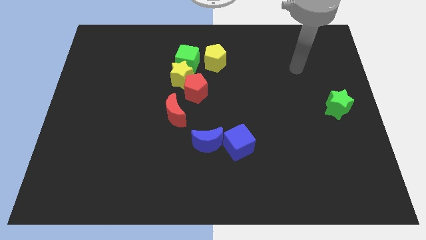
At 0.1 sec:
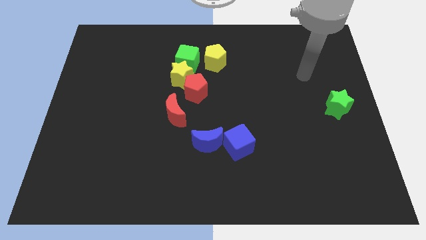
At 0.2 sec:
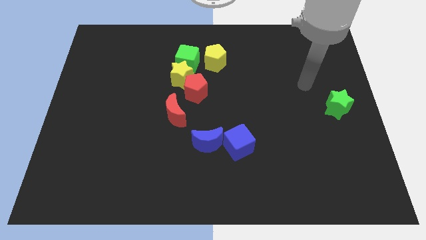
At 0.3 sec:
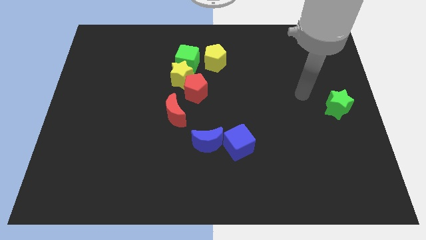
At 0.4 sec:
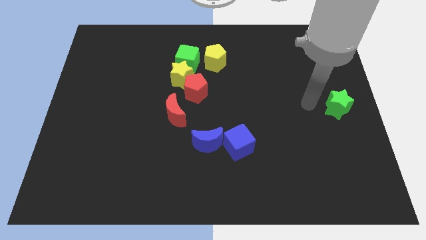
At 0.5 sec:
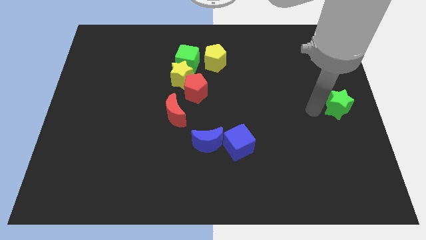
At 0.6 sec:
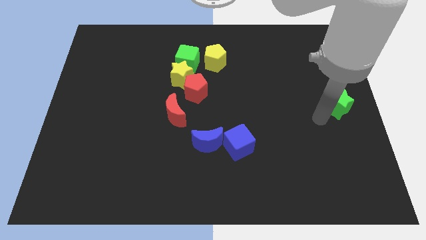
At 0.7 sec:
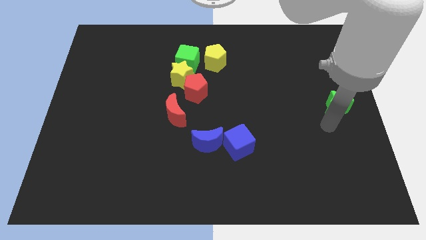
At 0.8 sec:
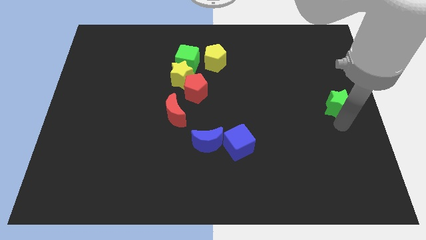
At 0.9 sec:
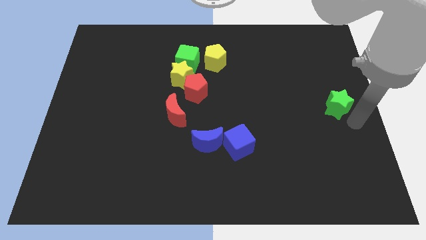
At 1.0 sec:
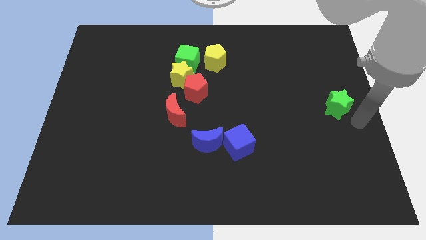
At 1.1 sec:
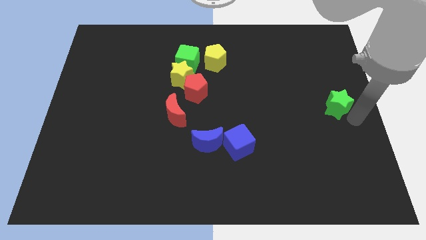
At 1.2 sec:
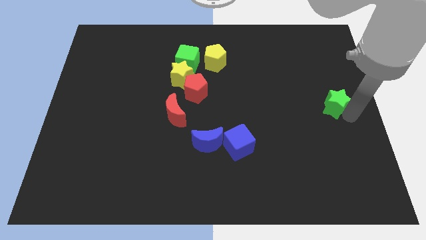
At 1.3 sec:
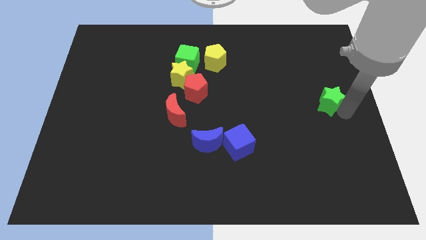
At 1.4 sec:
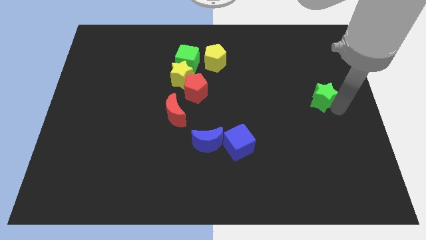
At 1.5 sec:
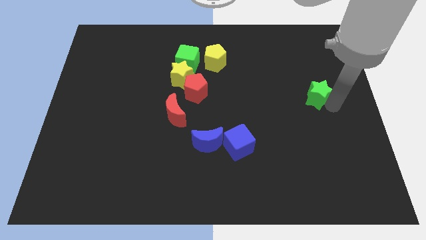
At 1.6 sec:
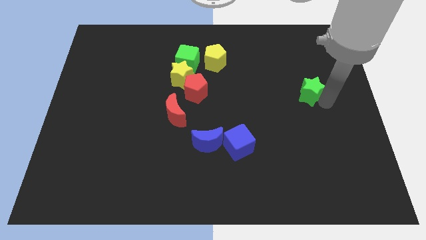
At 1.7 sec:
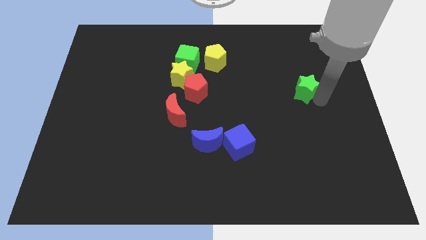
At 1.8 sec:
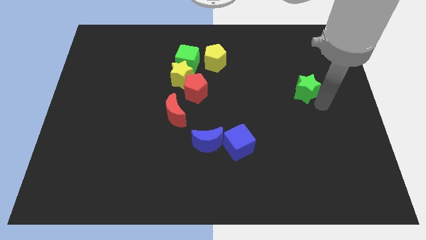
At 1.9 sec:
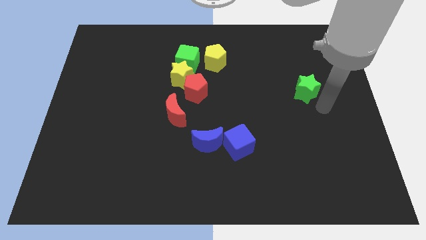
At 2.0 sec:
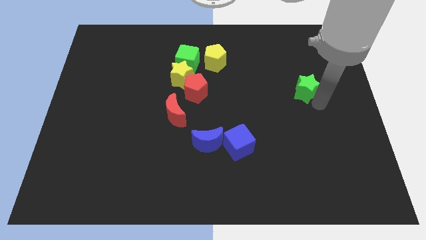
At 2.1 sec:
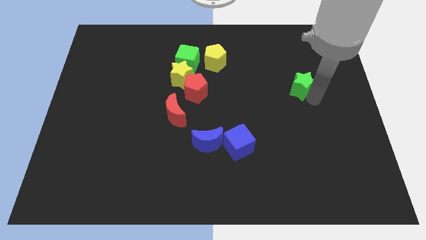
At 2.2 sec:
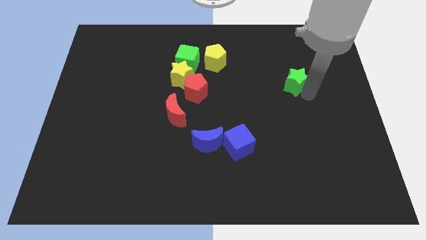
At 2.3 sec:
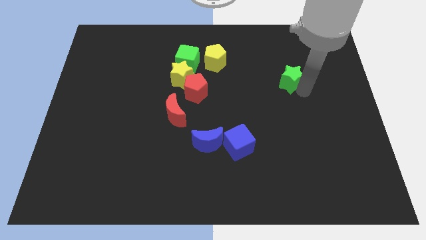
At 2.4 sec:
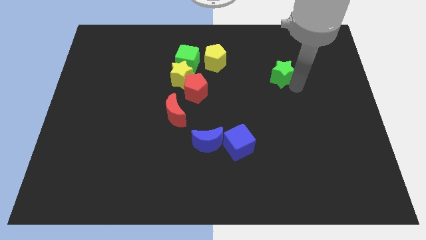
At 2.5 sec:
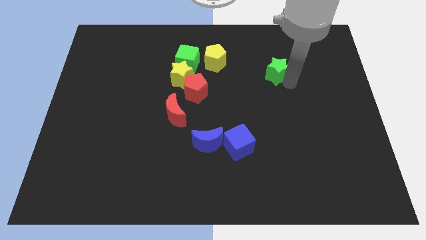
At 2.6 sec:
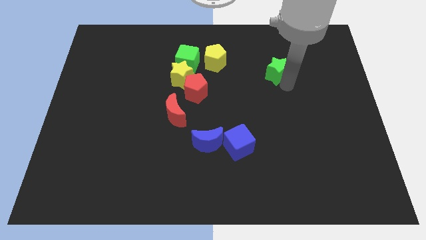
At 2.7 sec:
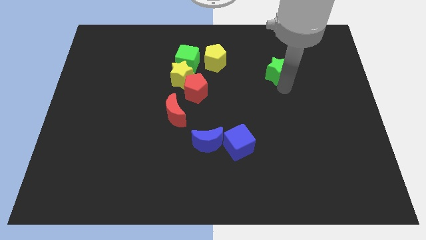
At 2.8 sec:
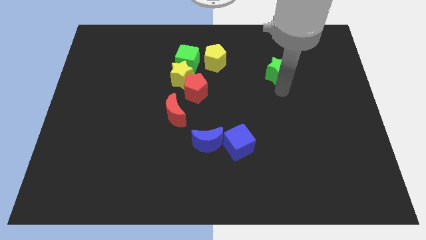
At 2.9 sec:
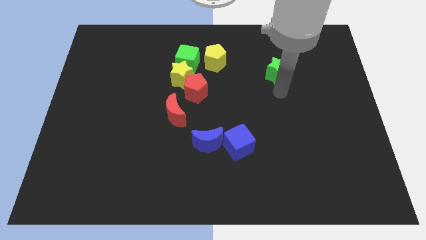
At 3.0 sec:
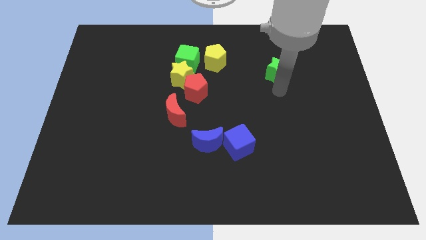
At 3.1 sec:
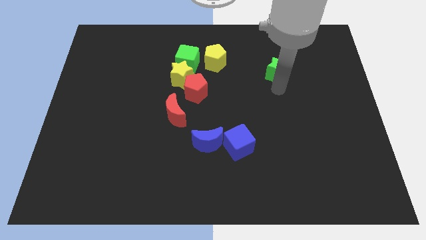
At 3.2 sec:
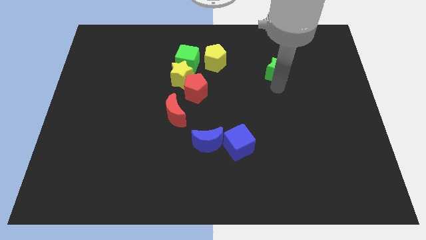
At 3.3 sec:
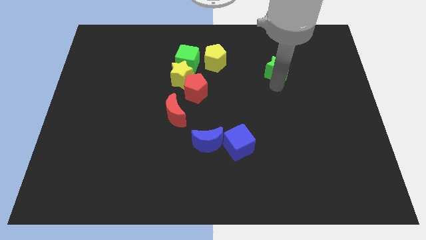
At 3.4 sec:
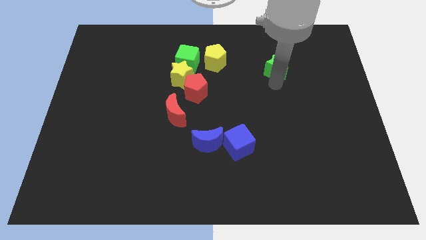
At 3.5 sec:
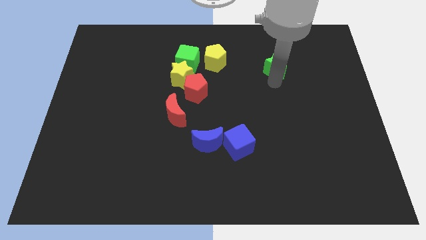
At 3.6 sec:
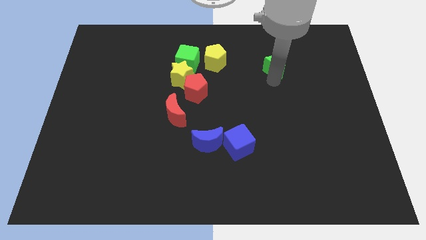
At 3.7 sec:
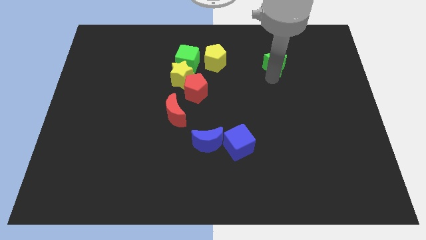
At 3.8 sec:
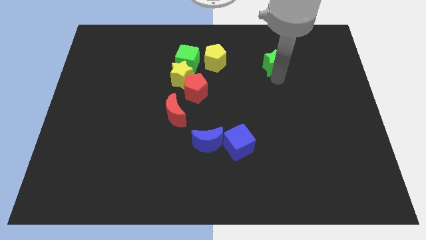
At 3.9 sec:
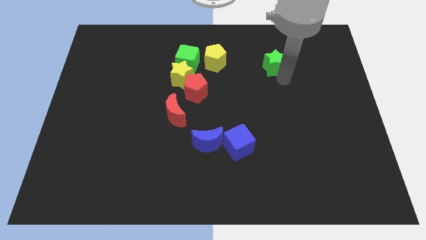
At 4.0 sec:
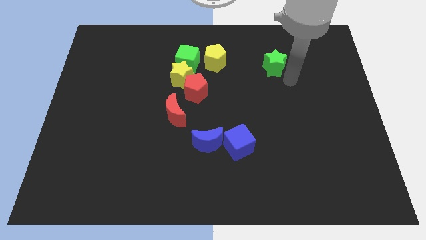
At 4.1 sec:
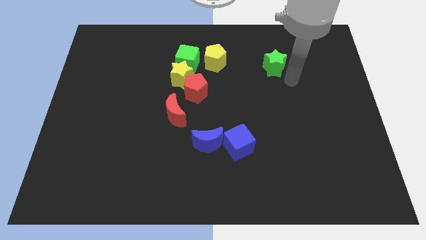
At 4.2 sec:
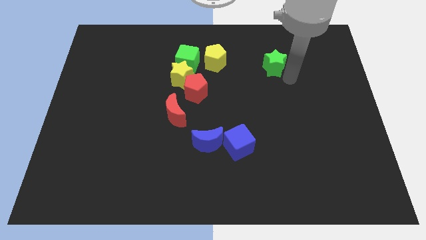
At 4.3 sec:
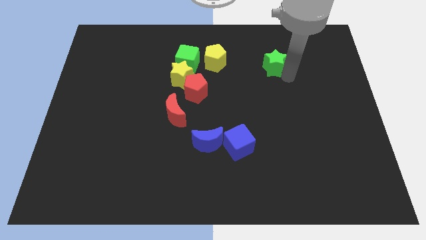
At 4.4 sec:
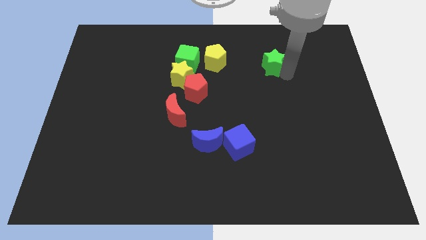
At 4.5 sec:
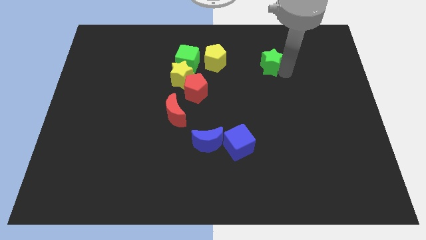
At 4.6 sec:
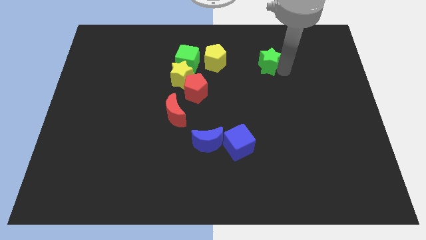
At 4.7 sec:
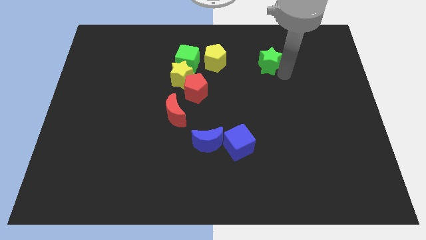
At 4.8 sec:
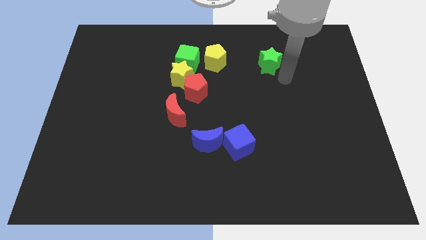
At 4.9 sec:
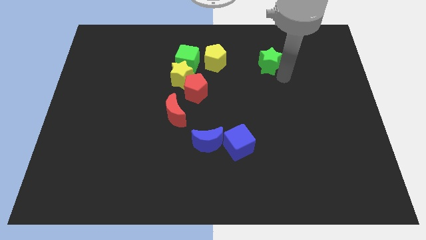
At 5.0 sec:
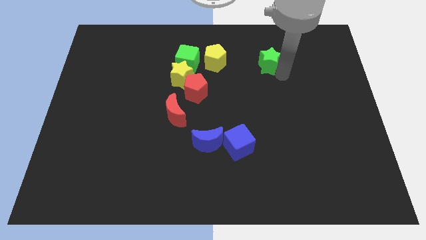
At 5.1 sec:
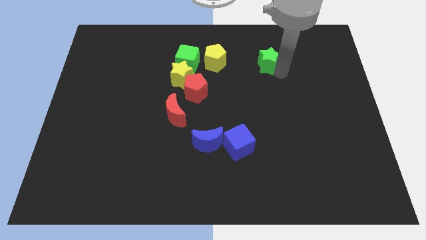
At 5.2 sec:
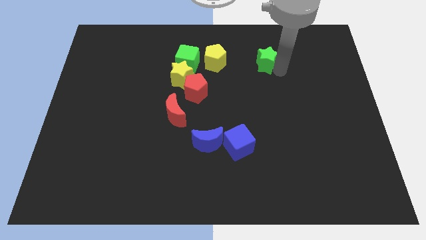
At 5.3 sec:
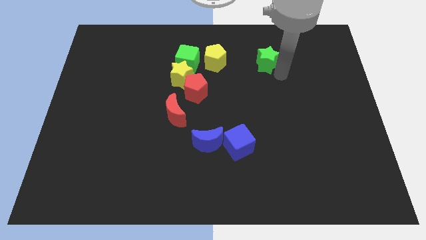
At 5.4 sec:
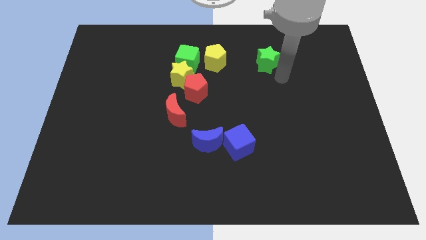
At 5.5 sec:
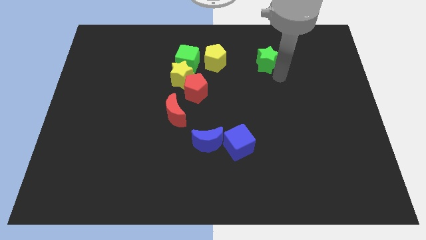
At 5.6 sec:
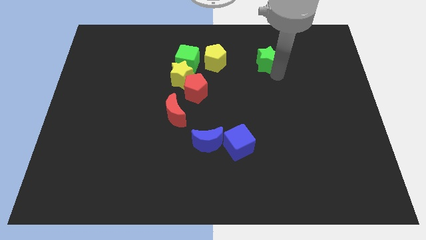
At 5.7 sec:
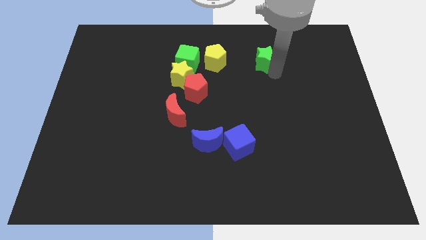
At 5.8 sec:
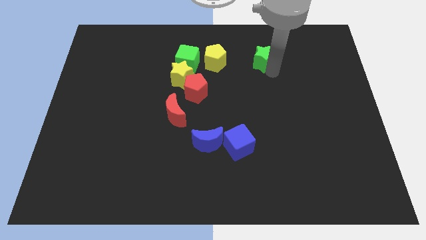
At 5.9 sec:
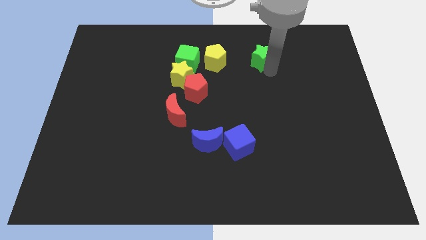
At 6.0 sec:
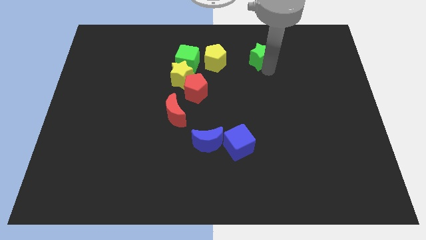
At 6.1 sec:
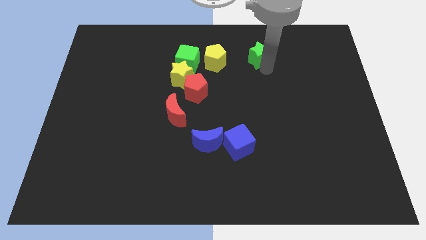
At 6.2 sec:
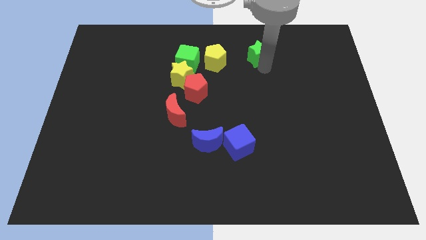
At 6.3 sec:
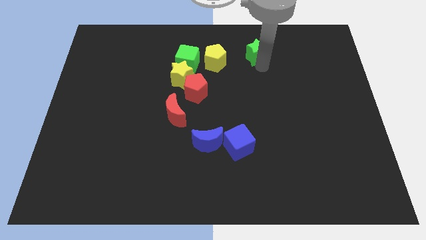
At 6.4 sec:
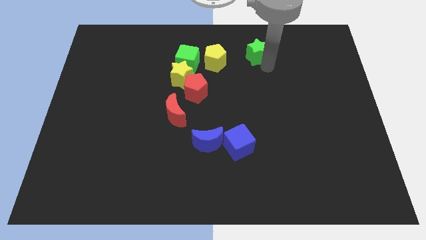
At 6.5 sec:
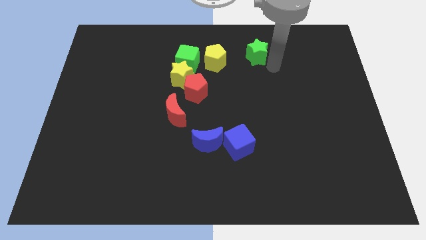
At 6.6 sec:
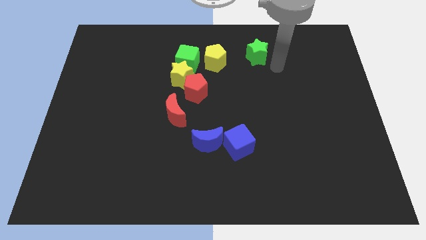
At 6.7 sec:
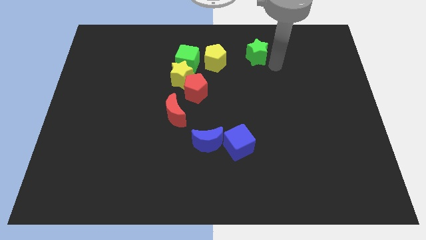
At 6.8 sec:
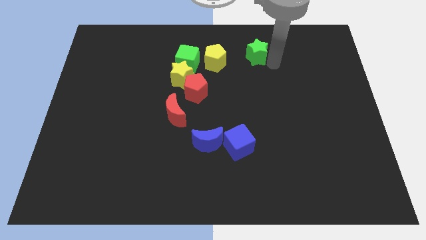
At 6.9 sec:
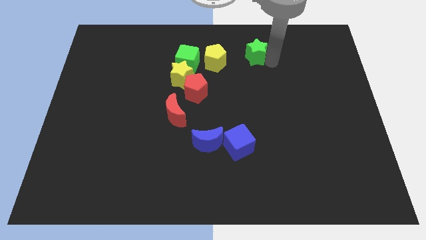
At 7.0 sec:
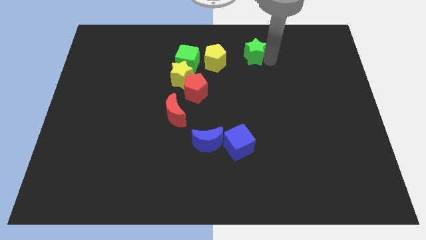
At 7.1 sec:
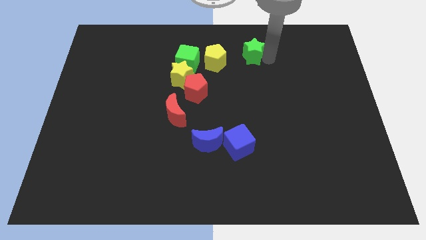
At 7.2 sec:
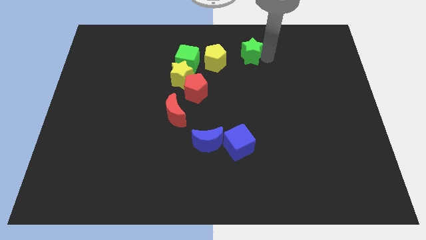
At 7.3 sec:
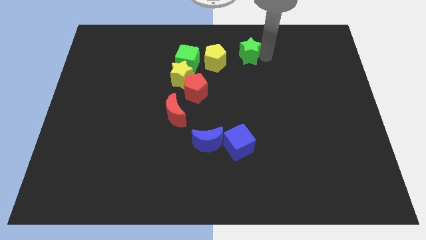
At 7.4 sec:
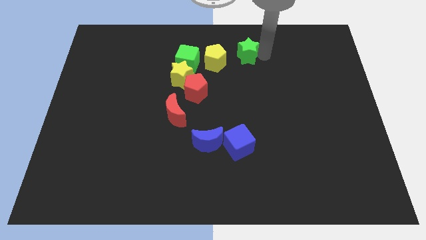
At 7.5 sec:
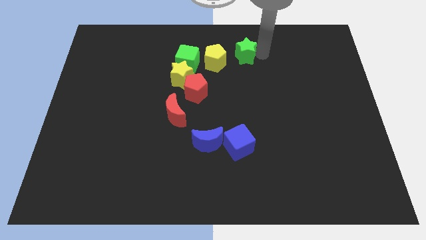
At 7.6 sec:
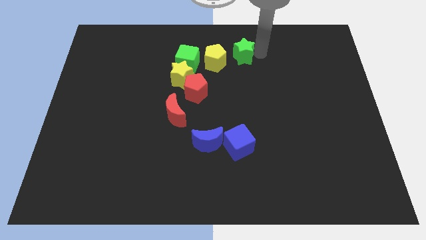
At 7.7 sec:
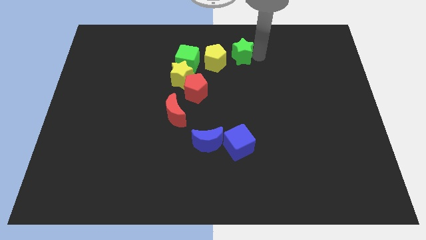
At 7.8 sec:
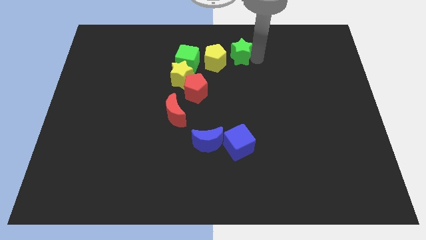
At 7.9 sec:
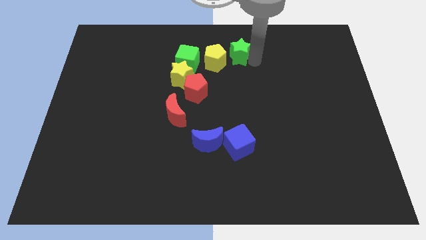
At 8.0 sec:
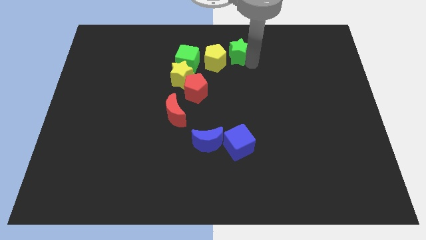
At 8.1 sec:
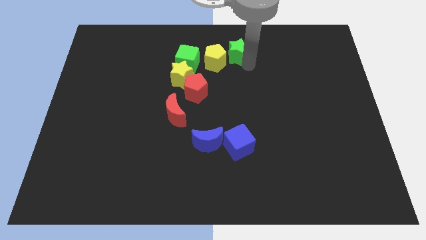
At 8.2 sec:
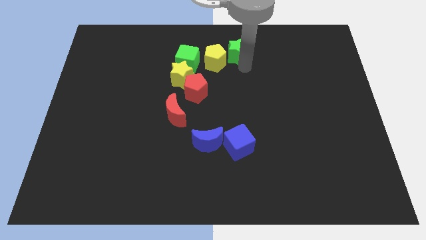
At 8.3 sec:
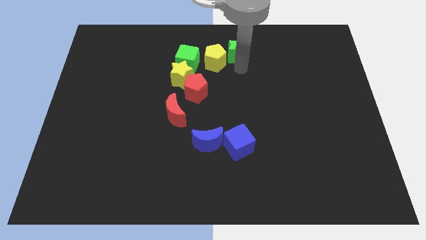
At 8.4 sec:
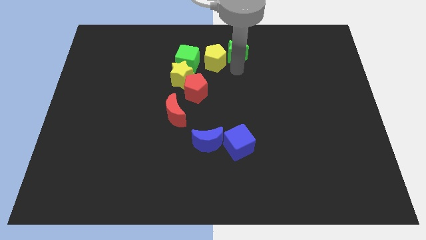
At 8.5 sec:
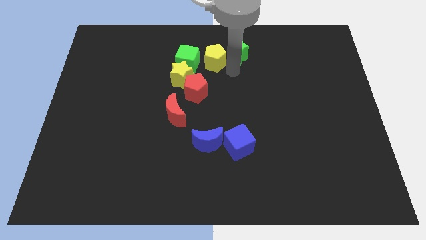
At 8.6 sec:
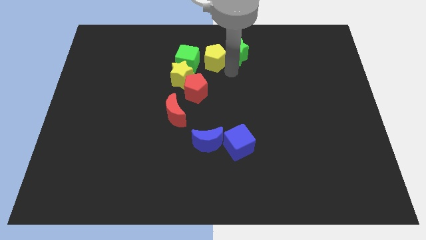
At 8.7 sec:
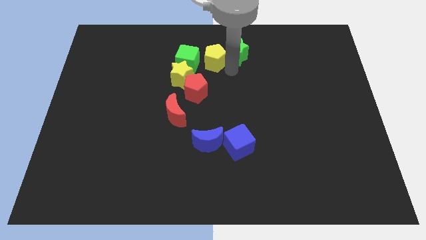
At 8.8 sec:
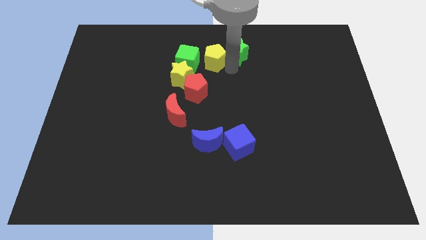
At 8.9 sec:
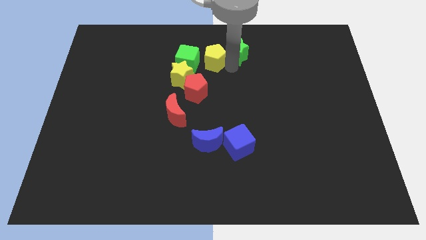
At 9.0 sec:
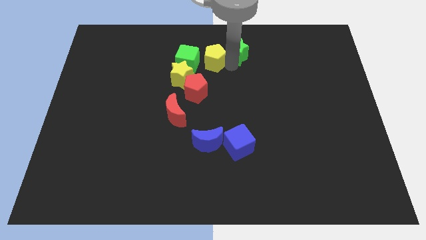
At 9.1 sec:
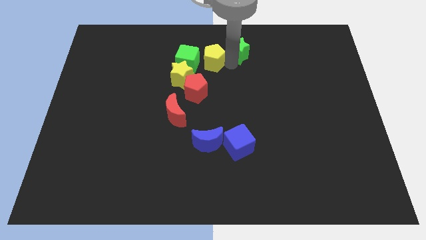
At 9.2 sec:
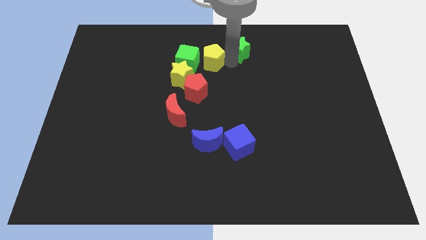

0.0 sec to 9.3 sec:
slide the green star to the top
